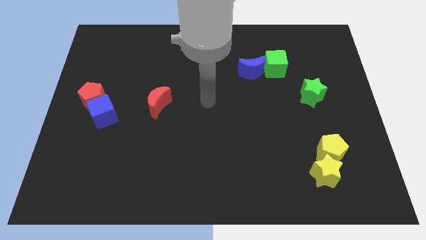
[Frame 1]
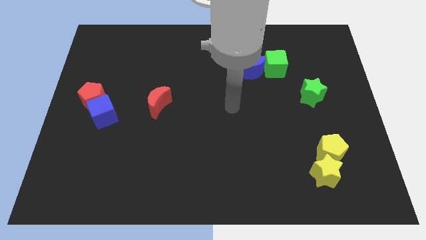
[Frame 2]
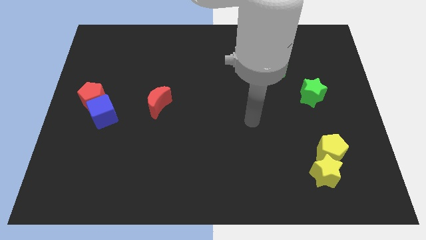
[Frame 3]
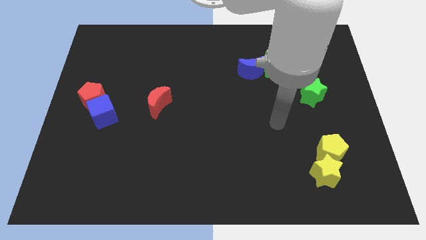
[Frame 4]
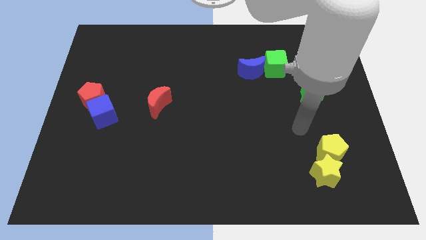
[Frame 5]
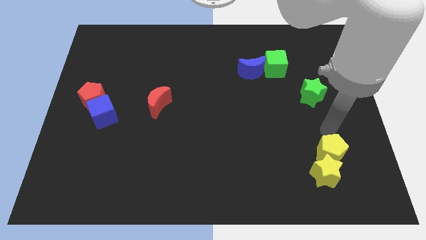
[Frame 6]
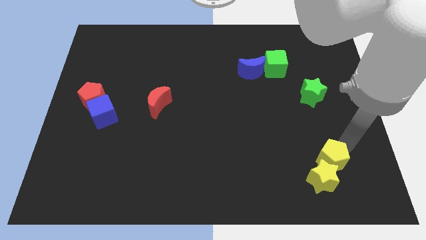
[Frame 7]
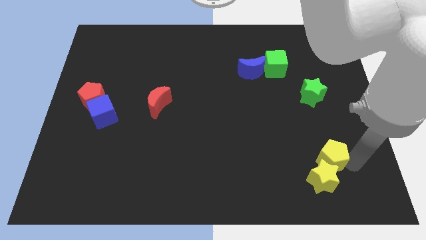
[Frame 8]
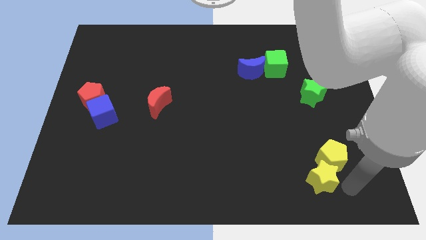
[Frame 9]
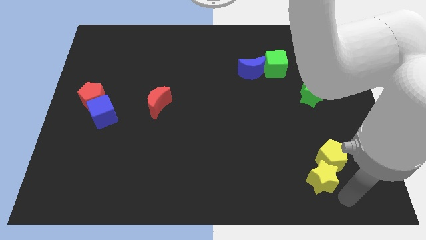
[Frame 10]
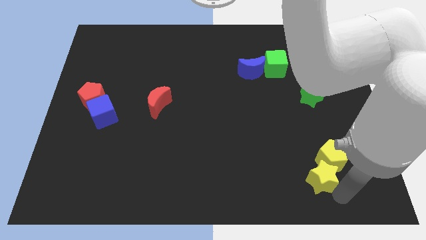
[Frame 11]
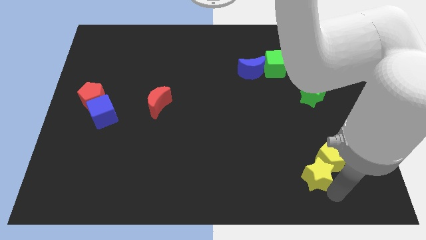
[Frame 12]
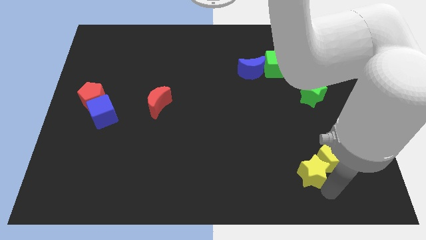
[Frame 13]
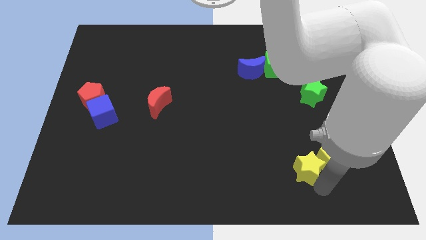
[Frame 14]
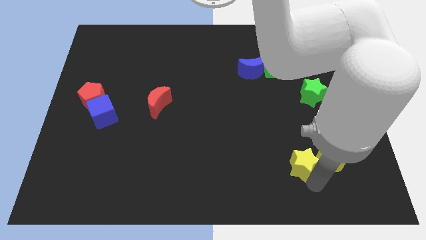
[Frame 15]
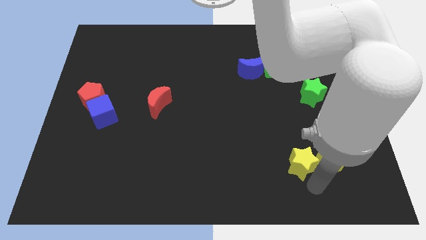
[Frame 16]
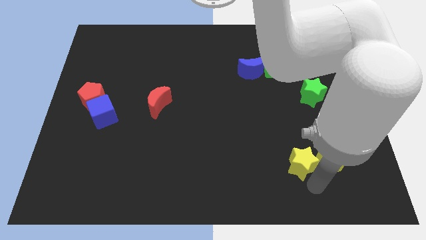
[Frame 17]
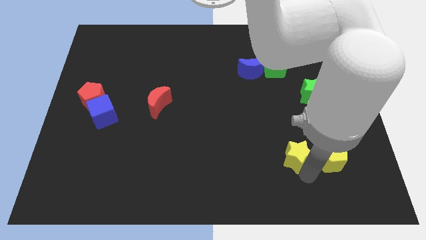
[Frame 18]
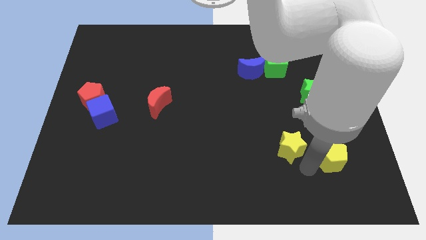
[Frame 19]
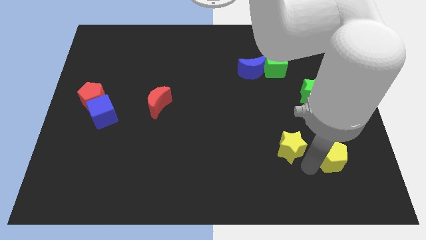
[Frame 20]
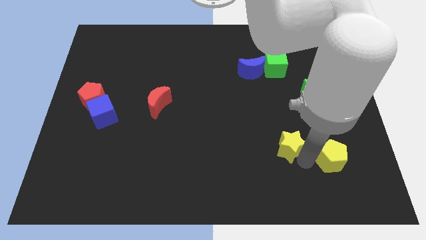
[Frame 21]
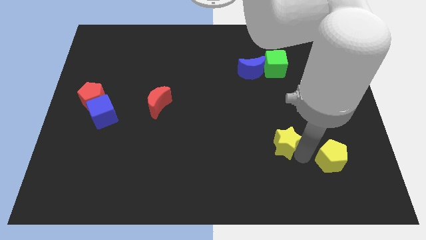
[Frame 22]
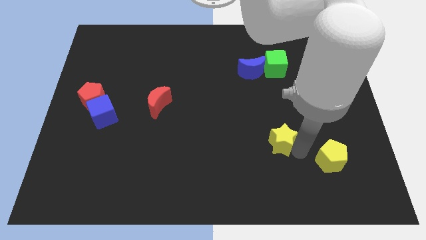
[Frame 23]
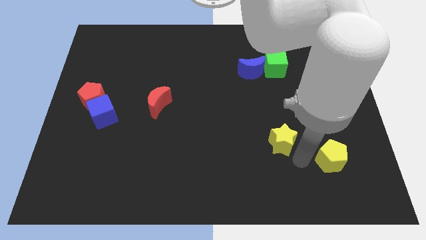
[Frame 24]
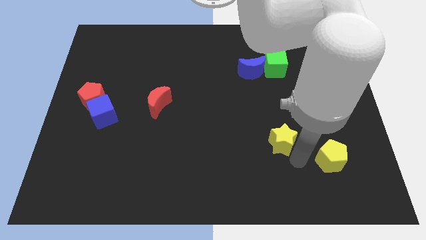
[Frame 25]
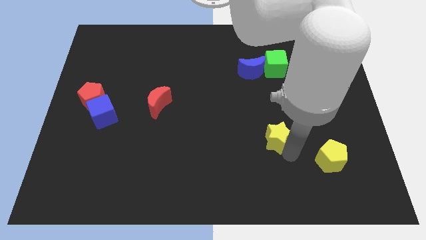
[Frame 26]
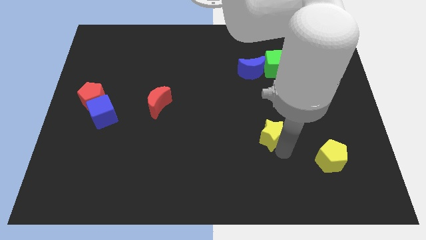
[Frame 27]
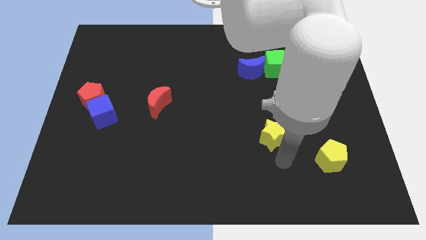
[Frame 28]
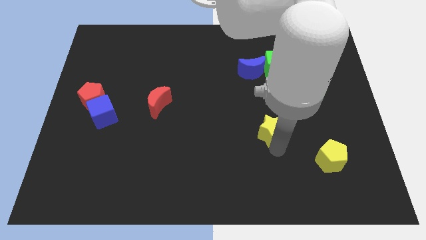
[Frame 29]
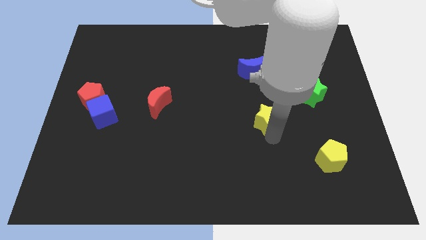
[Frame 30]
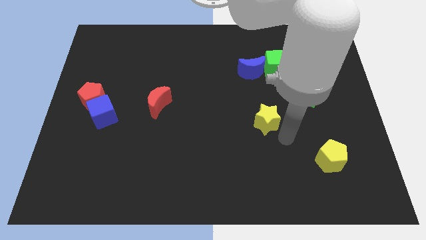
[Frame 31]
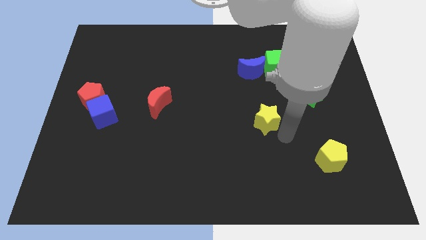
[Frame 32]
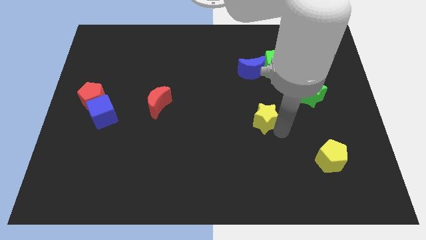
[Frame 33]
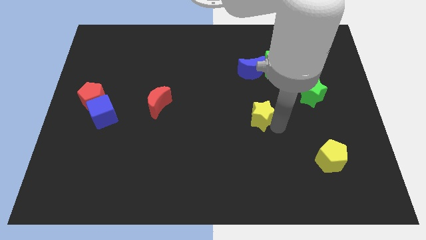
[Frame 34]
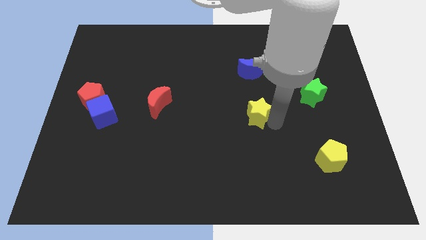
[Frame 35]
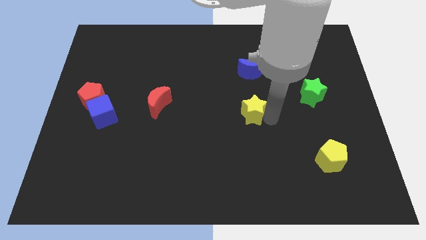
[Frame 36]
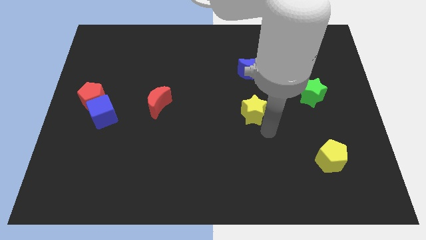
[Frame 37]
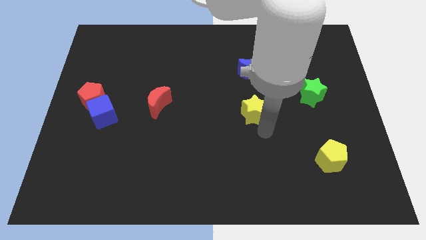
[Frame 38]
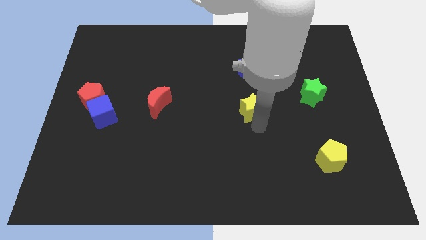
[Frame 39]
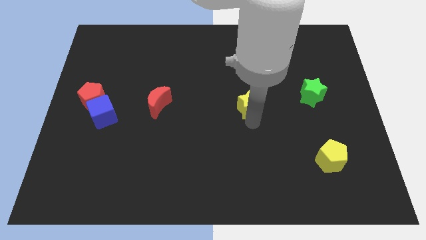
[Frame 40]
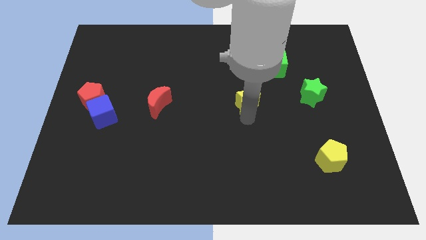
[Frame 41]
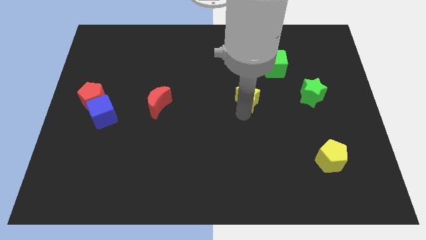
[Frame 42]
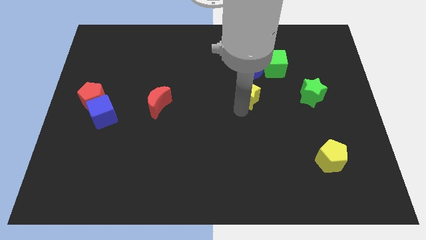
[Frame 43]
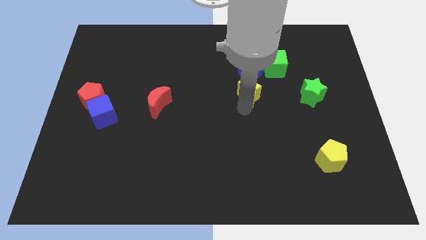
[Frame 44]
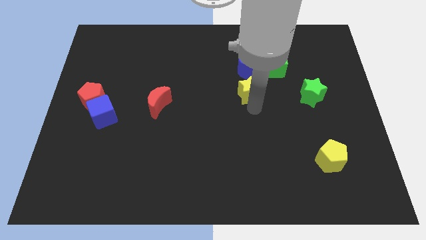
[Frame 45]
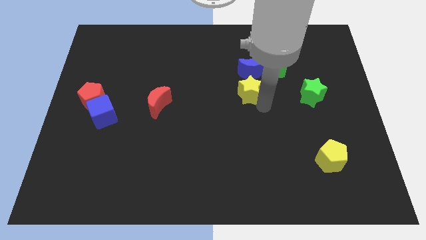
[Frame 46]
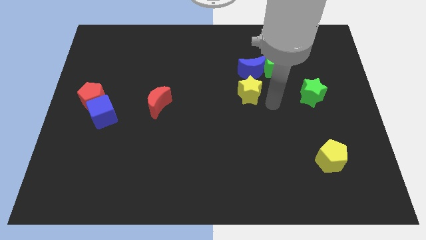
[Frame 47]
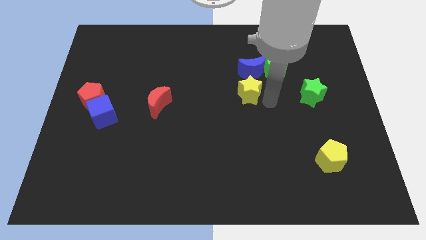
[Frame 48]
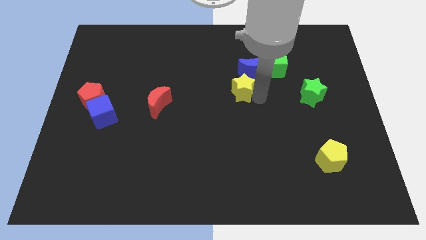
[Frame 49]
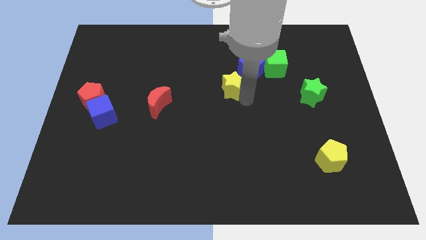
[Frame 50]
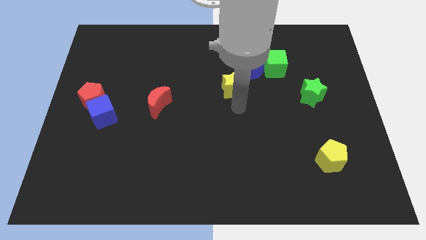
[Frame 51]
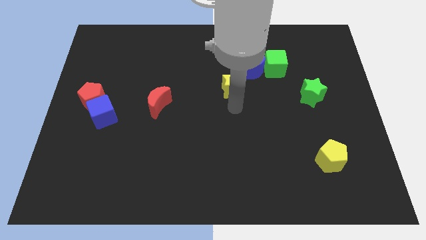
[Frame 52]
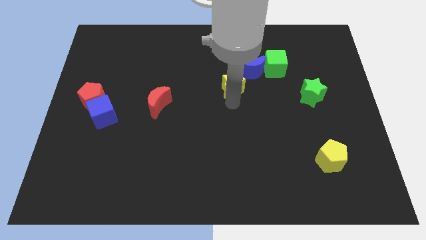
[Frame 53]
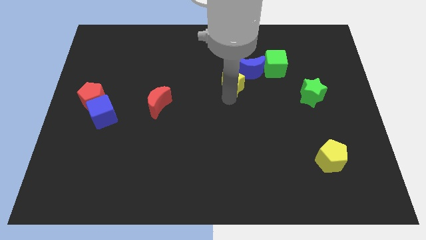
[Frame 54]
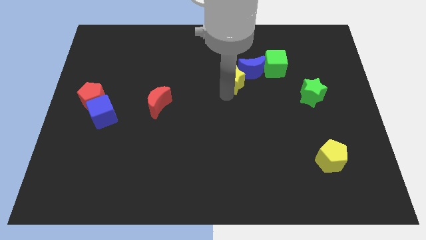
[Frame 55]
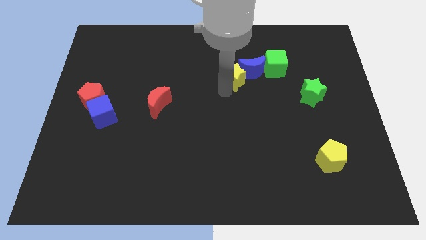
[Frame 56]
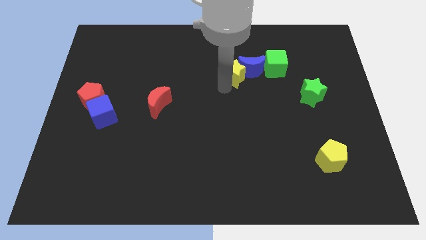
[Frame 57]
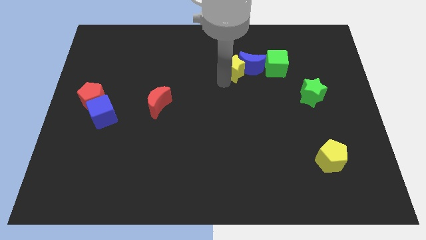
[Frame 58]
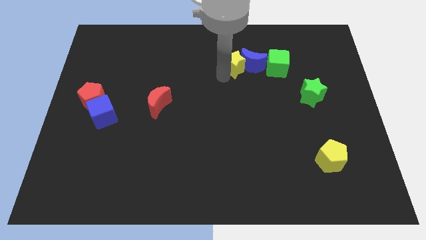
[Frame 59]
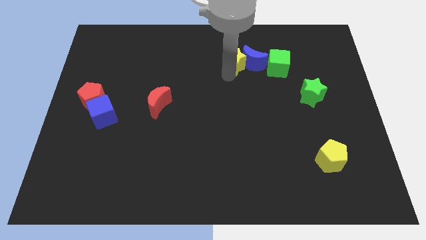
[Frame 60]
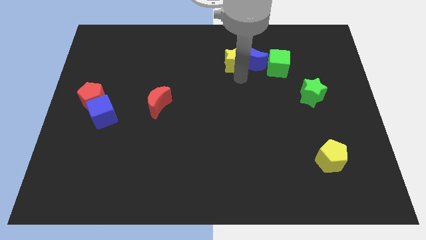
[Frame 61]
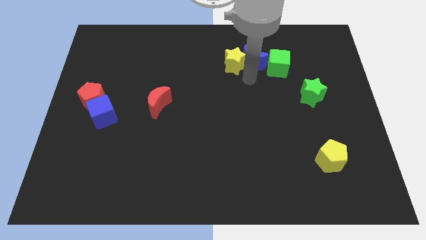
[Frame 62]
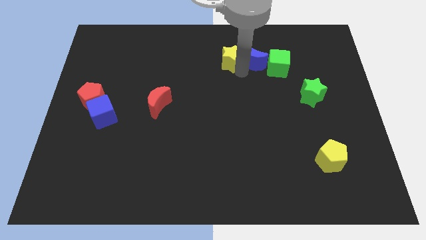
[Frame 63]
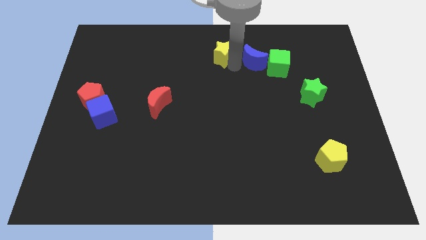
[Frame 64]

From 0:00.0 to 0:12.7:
slide the yellow star to the top side
